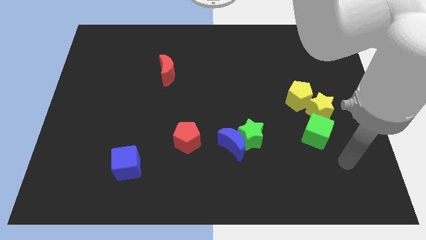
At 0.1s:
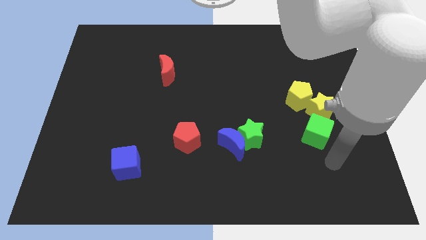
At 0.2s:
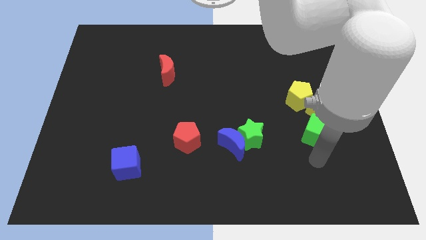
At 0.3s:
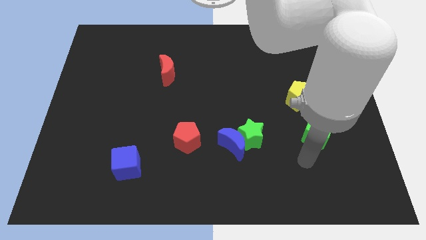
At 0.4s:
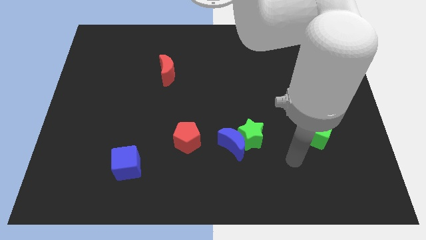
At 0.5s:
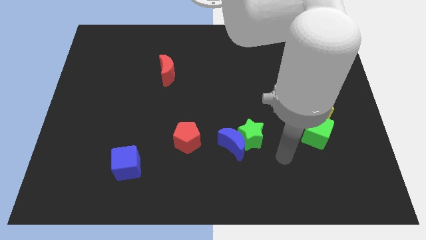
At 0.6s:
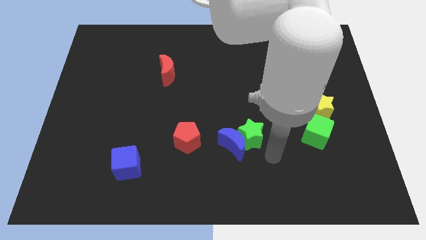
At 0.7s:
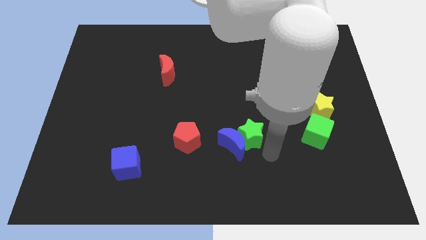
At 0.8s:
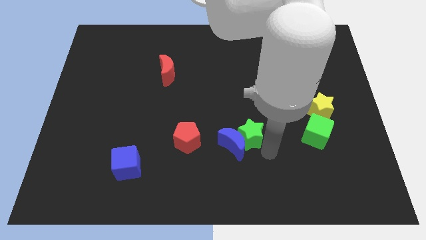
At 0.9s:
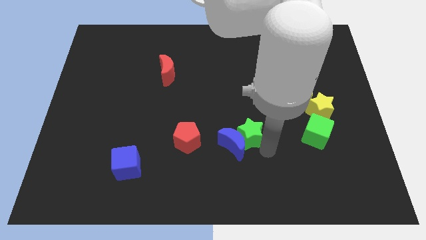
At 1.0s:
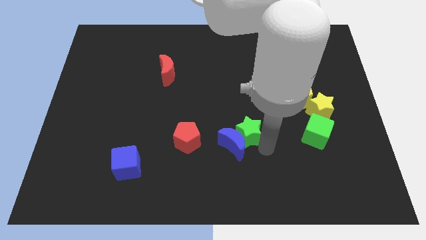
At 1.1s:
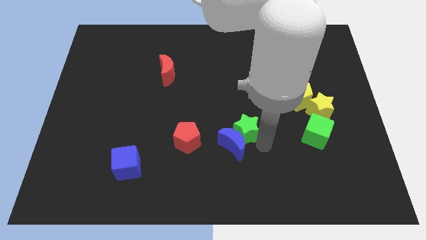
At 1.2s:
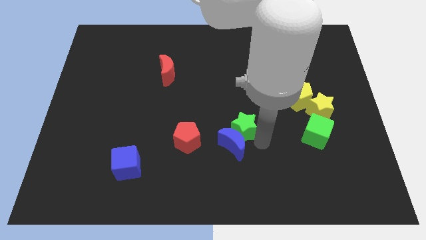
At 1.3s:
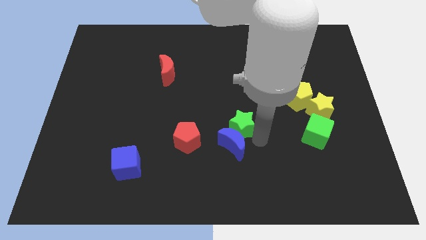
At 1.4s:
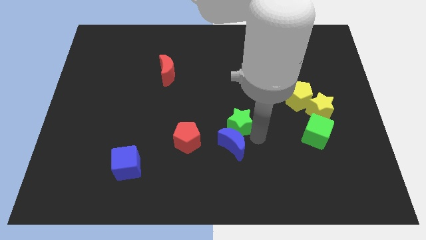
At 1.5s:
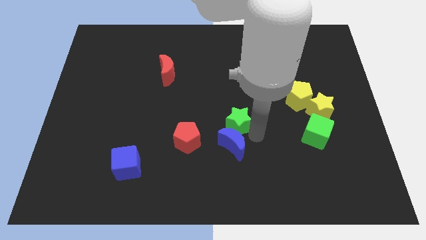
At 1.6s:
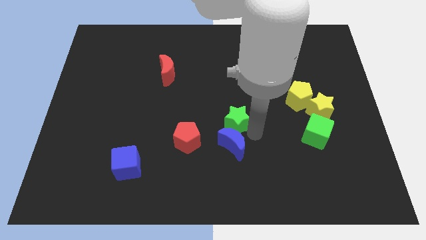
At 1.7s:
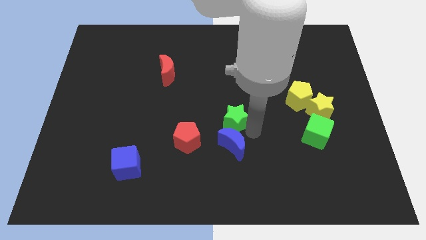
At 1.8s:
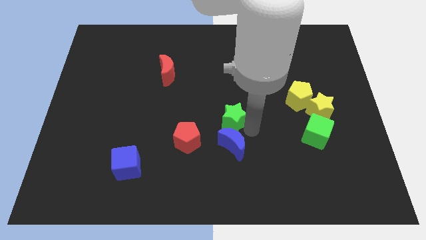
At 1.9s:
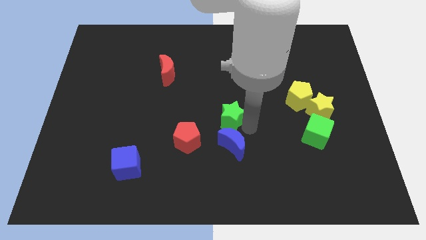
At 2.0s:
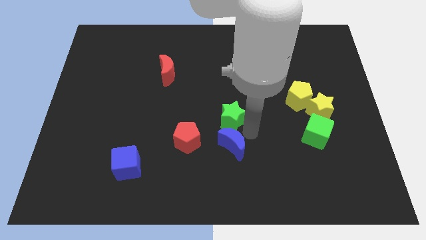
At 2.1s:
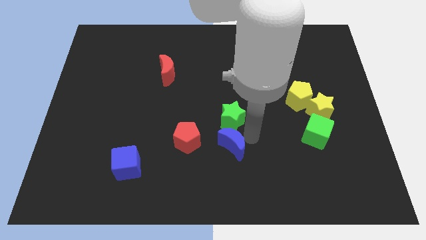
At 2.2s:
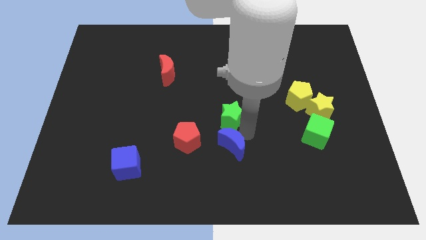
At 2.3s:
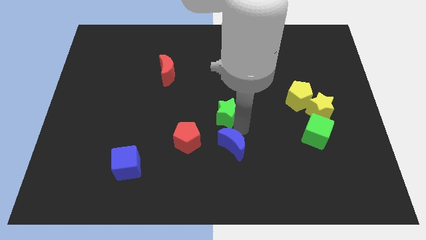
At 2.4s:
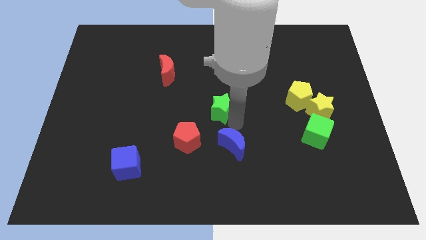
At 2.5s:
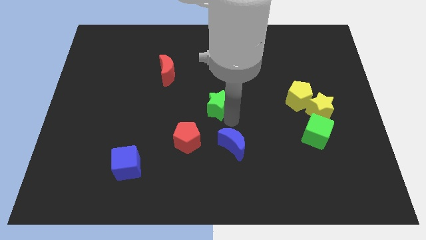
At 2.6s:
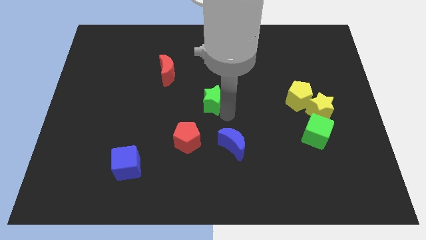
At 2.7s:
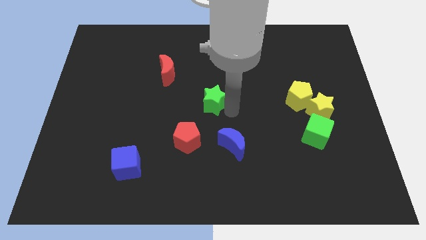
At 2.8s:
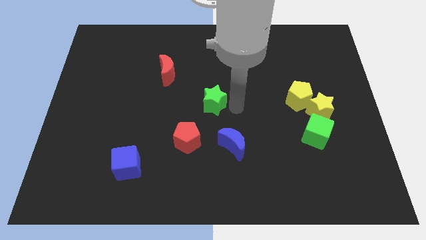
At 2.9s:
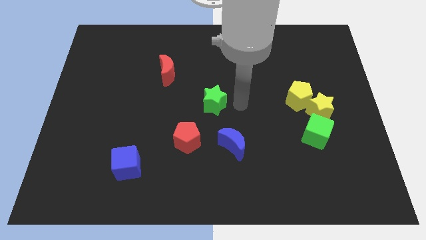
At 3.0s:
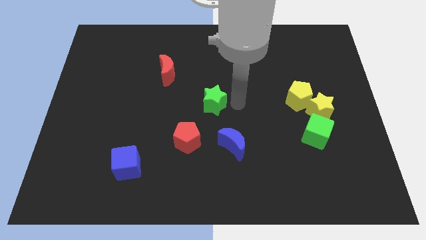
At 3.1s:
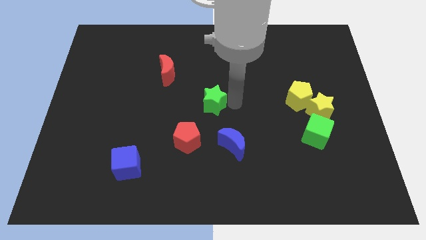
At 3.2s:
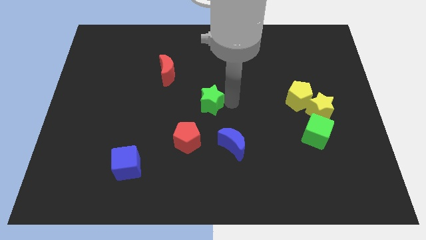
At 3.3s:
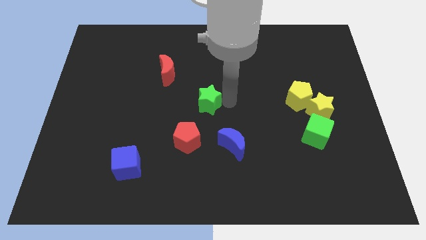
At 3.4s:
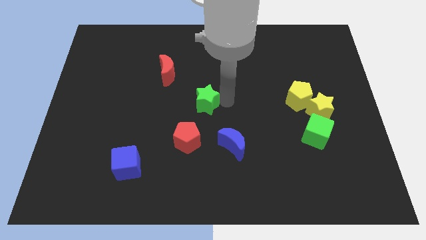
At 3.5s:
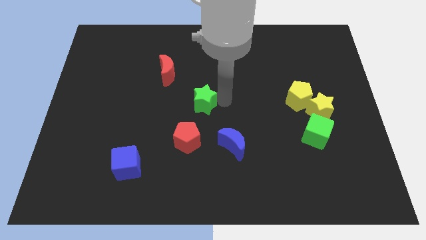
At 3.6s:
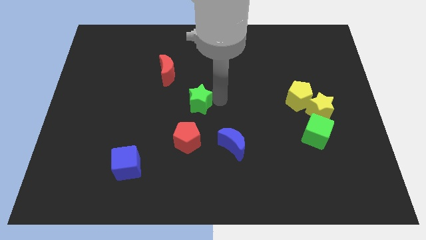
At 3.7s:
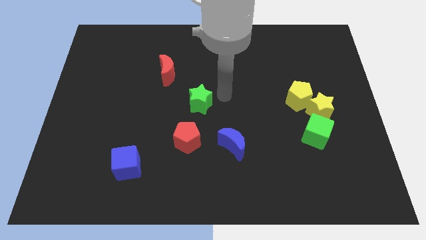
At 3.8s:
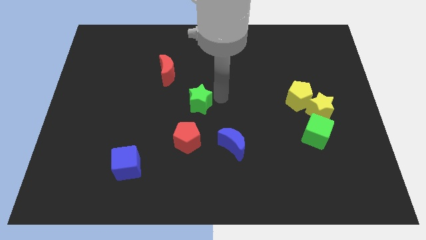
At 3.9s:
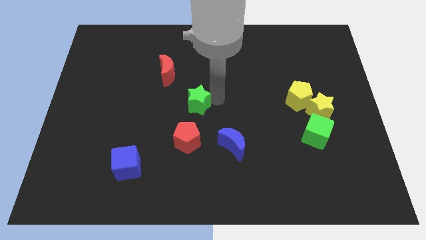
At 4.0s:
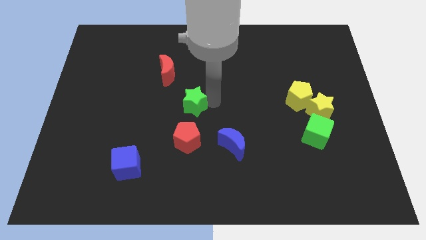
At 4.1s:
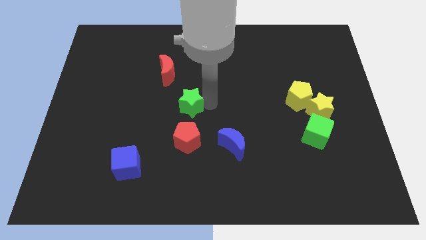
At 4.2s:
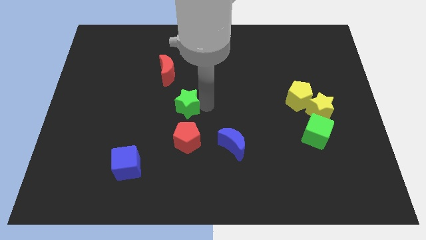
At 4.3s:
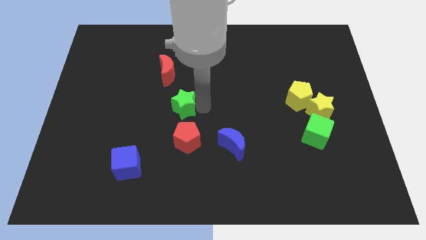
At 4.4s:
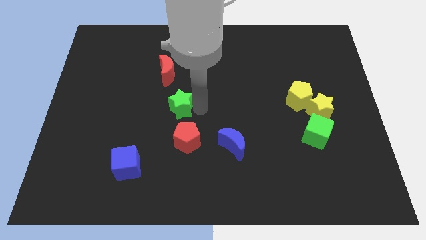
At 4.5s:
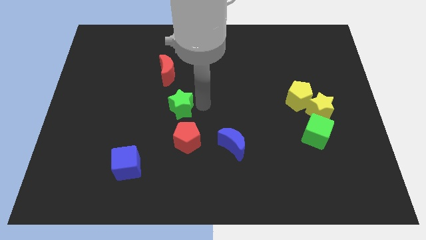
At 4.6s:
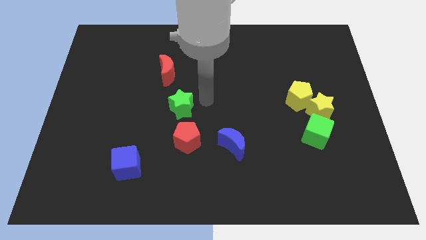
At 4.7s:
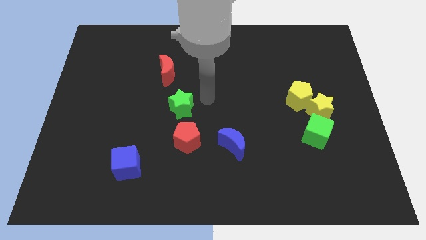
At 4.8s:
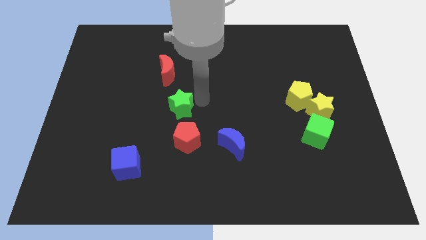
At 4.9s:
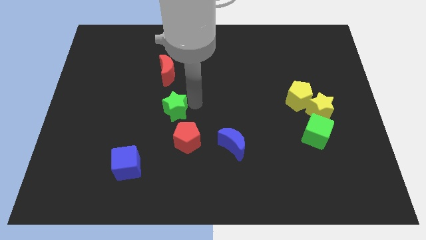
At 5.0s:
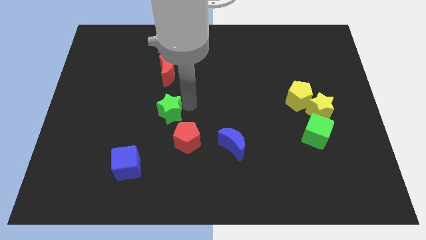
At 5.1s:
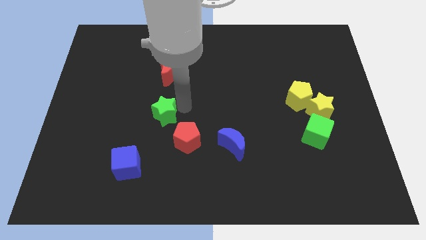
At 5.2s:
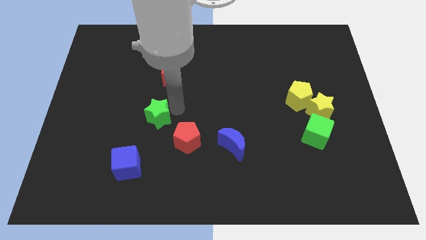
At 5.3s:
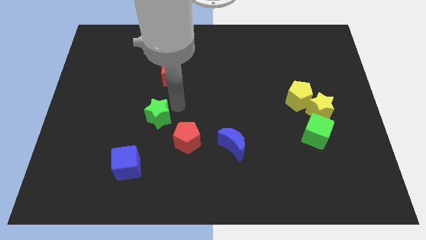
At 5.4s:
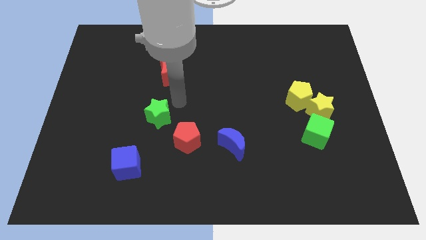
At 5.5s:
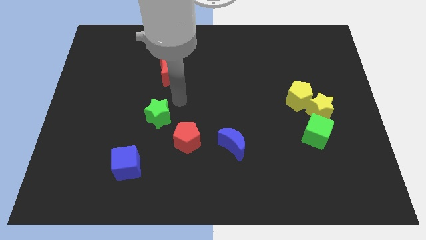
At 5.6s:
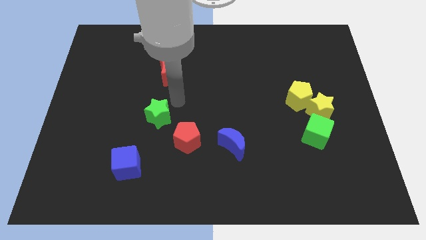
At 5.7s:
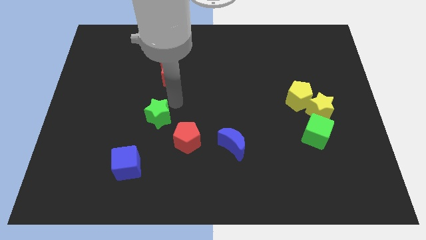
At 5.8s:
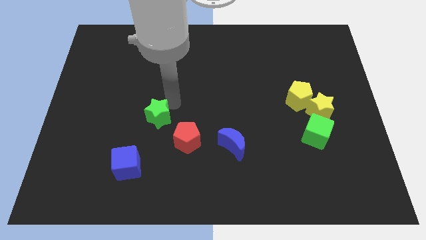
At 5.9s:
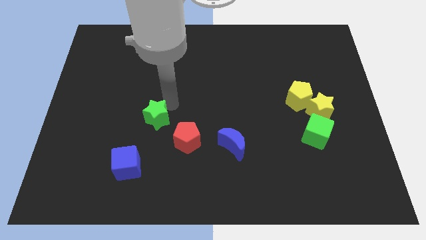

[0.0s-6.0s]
push the green star to the left

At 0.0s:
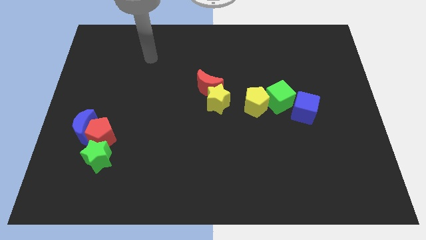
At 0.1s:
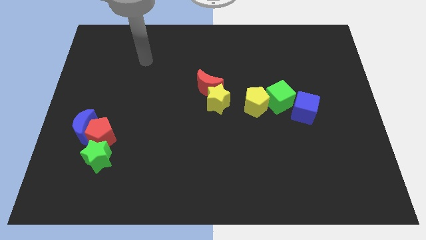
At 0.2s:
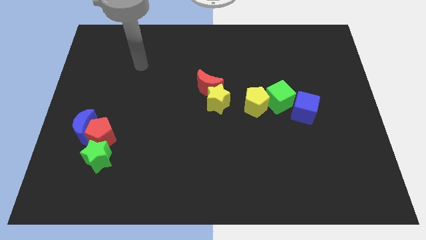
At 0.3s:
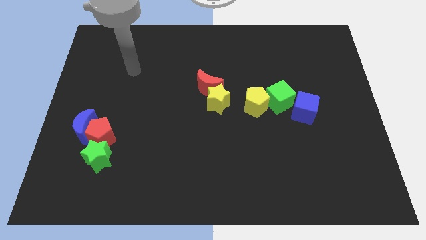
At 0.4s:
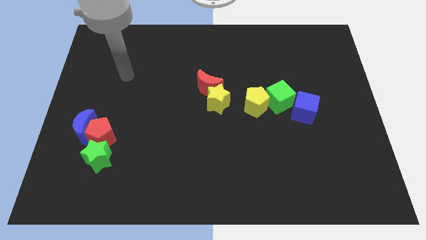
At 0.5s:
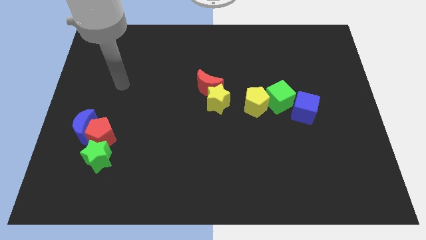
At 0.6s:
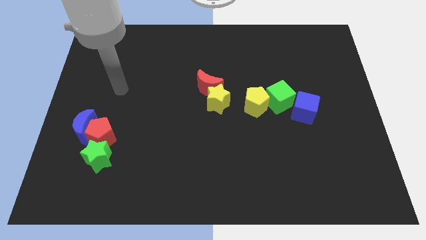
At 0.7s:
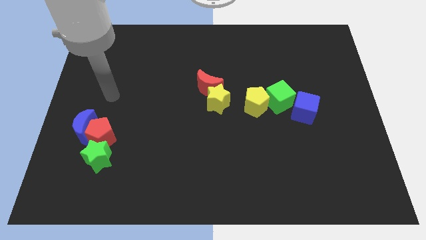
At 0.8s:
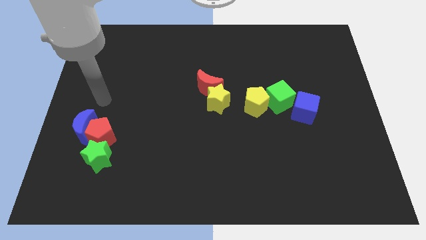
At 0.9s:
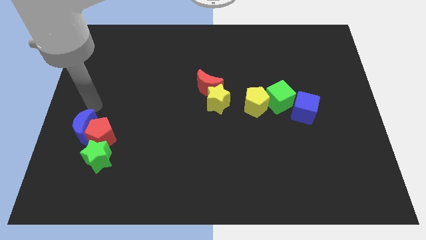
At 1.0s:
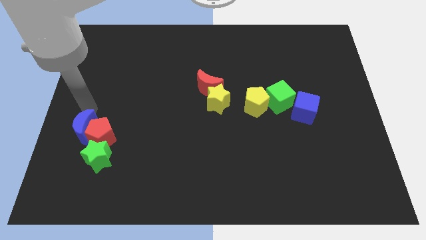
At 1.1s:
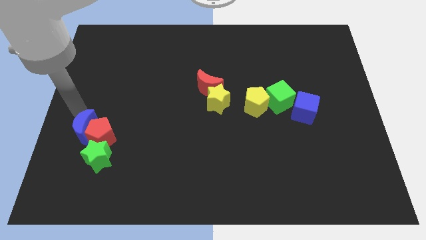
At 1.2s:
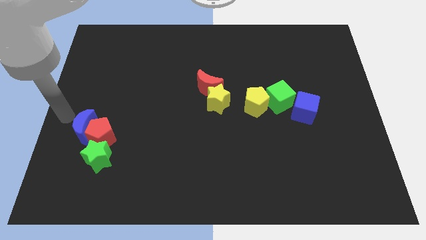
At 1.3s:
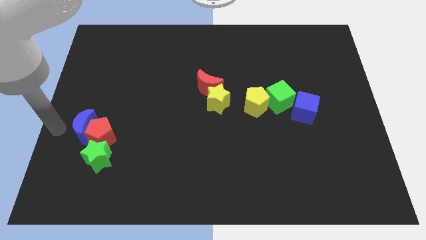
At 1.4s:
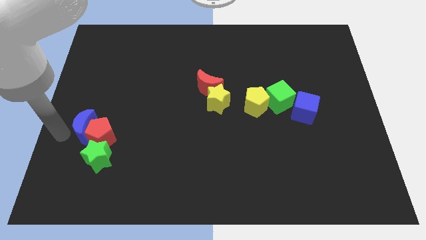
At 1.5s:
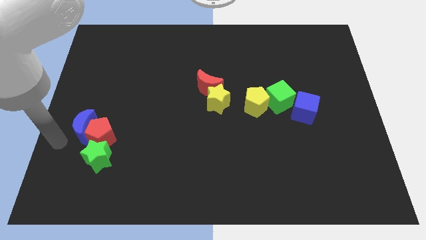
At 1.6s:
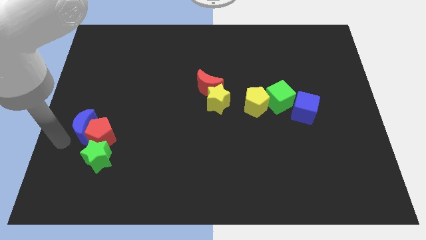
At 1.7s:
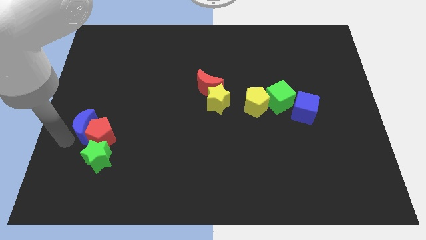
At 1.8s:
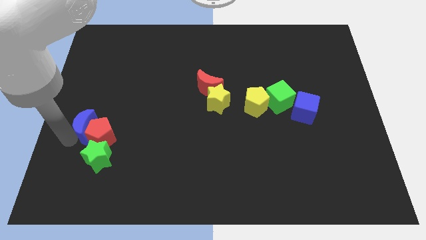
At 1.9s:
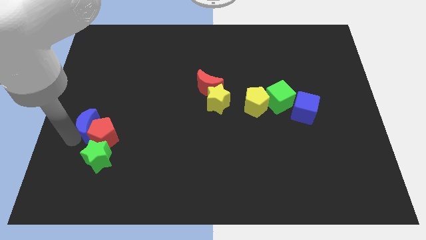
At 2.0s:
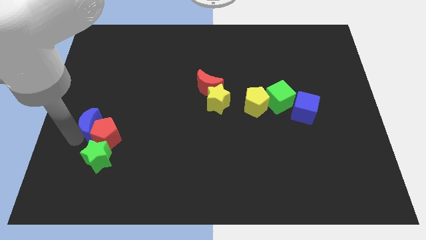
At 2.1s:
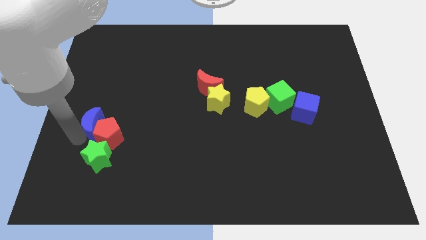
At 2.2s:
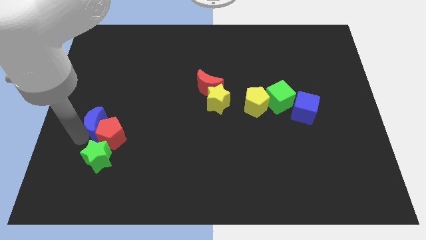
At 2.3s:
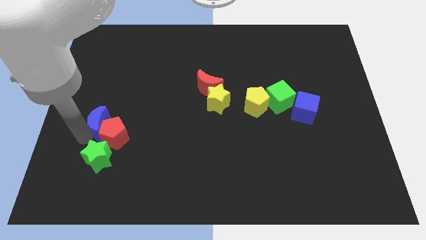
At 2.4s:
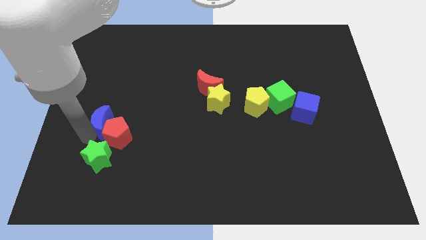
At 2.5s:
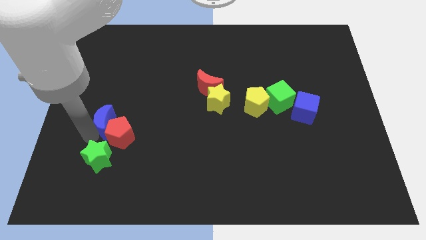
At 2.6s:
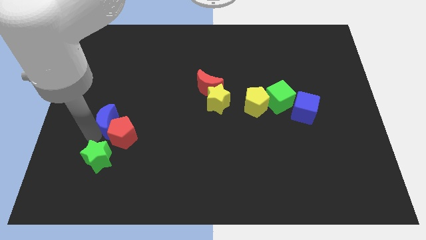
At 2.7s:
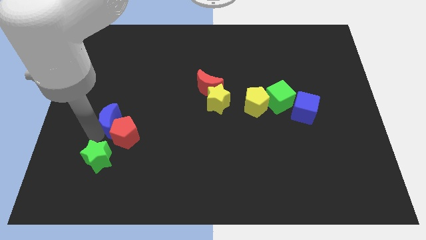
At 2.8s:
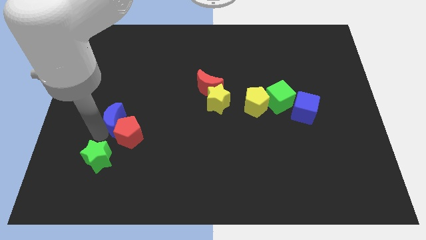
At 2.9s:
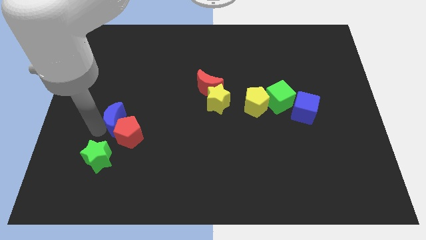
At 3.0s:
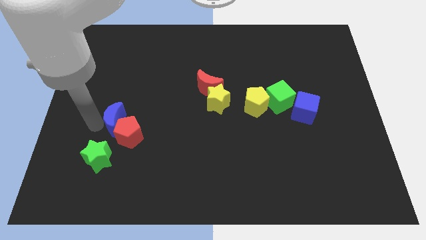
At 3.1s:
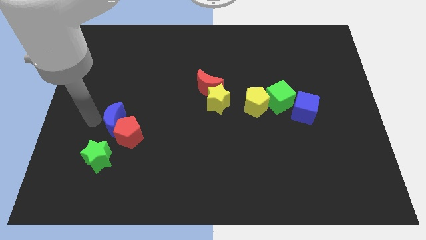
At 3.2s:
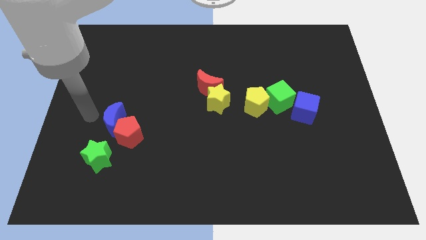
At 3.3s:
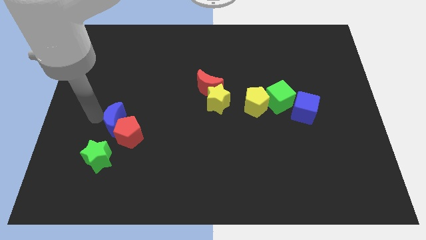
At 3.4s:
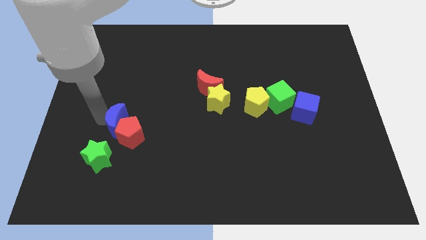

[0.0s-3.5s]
slightly push the blue moon to the right
